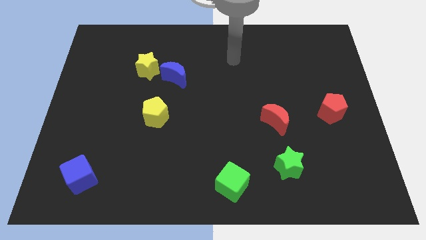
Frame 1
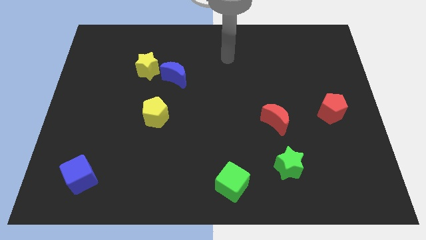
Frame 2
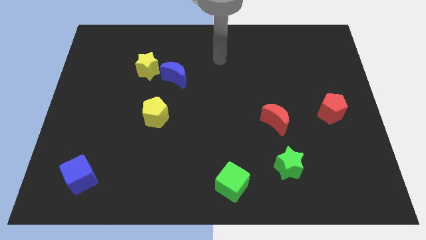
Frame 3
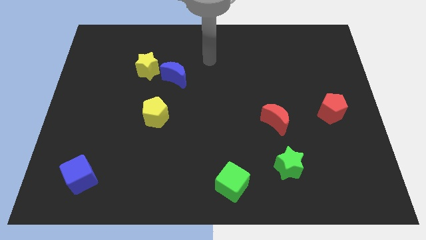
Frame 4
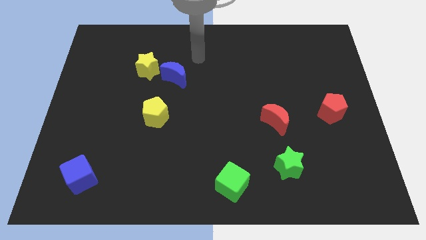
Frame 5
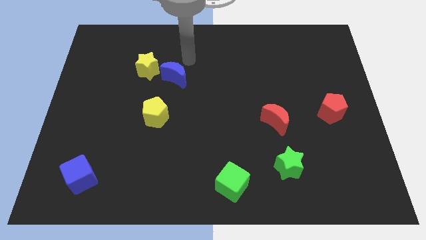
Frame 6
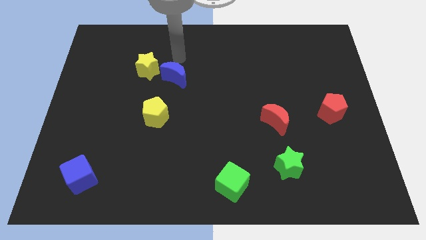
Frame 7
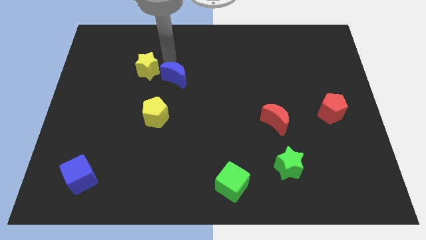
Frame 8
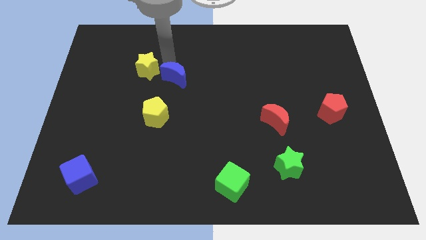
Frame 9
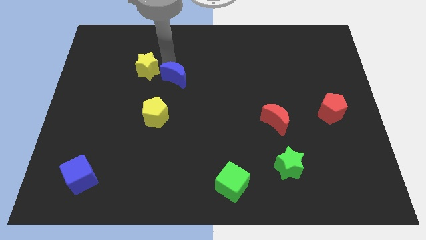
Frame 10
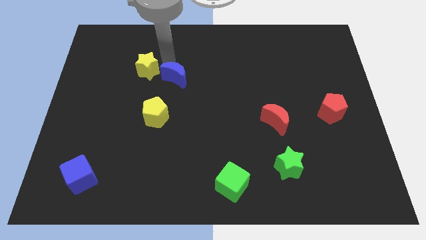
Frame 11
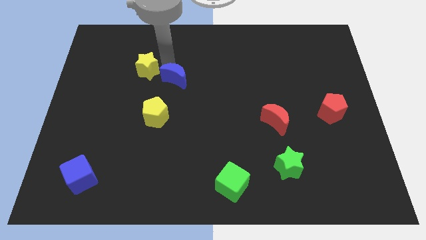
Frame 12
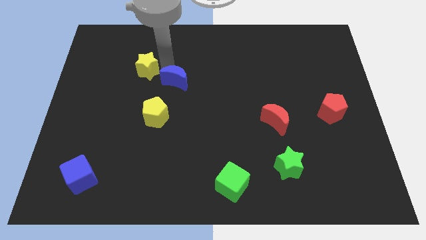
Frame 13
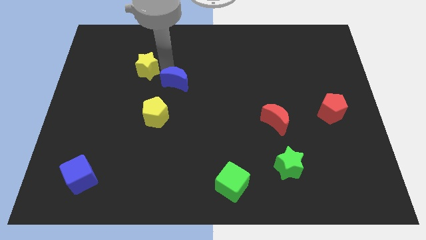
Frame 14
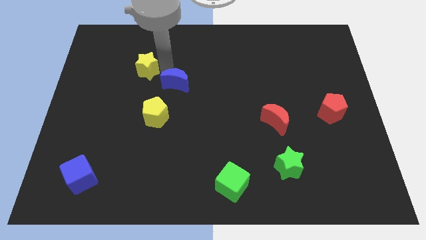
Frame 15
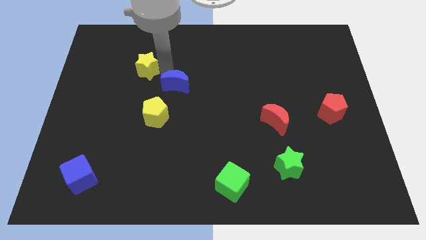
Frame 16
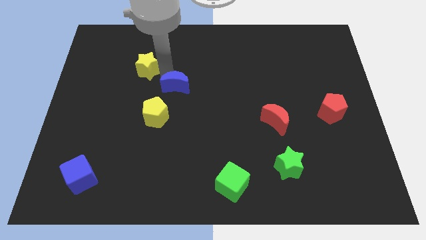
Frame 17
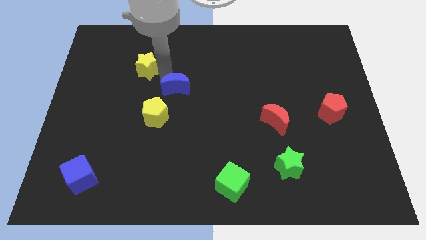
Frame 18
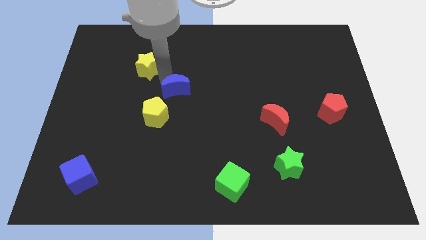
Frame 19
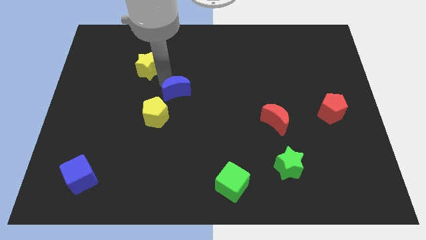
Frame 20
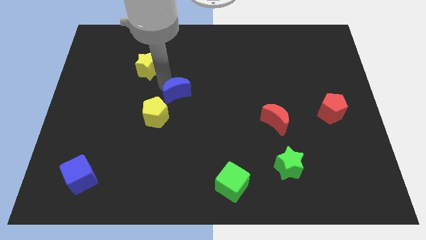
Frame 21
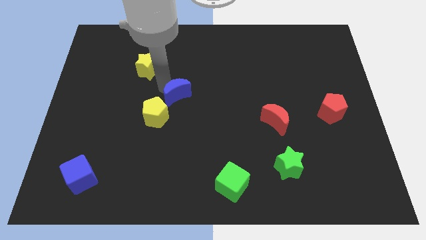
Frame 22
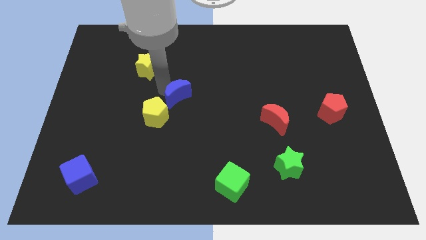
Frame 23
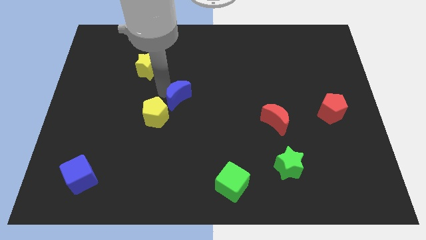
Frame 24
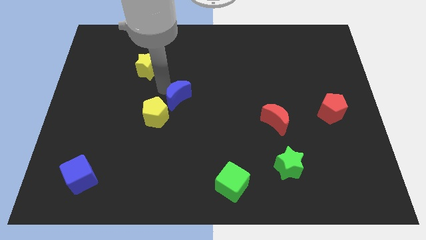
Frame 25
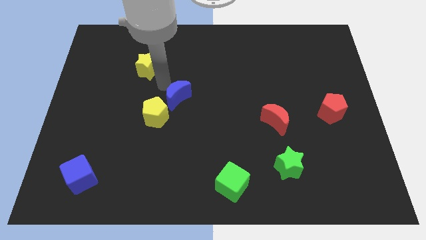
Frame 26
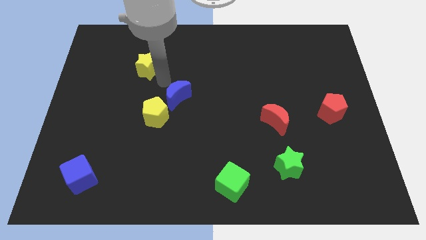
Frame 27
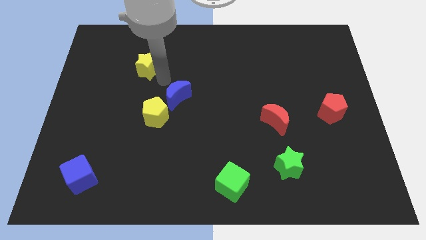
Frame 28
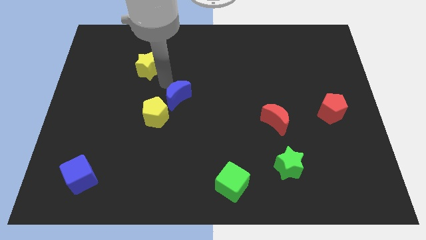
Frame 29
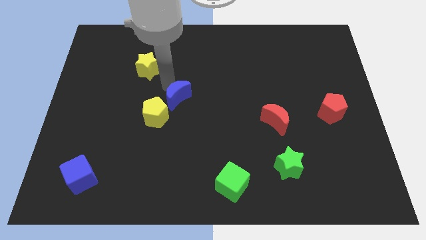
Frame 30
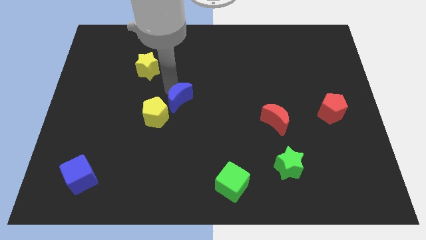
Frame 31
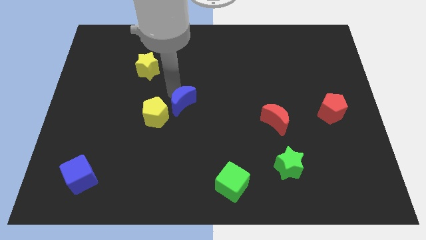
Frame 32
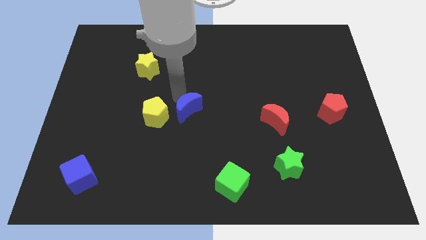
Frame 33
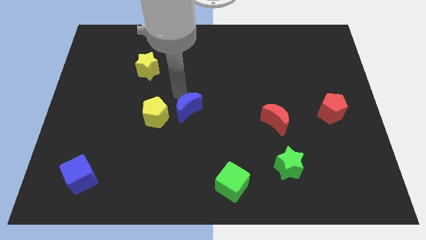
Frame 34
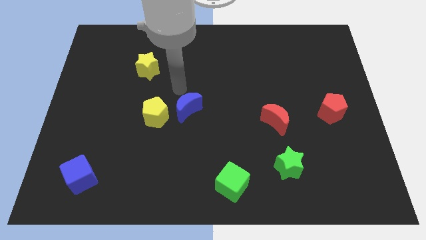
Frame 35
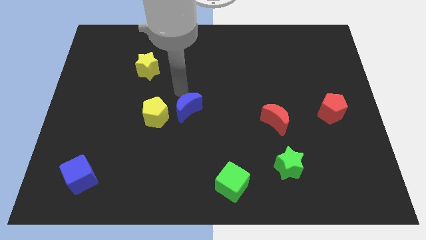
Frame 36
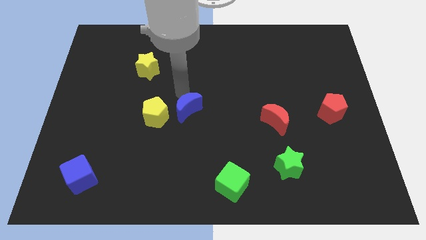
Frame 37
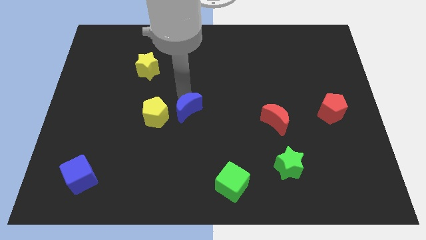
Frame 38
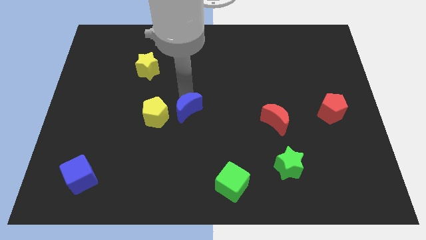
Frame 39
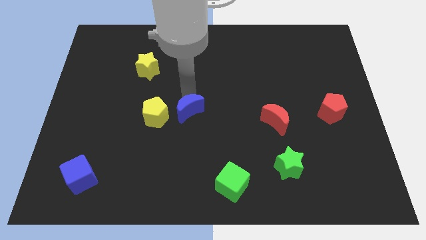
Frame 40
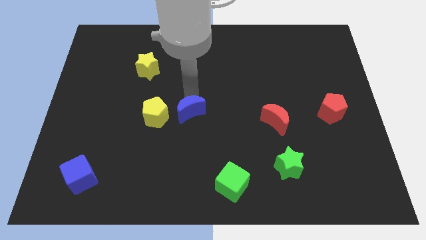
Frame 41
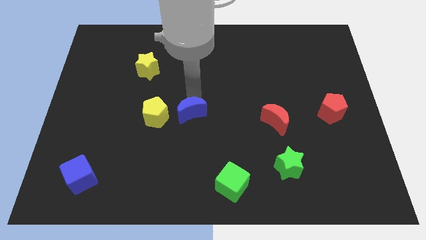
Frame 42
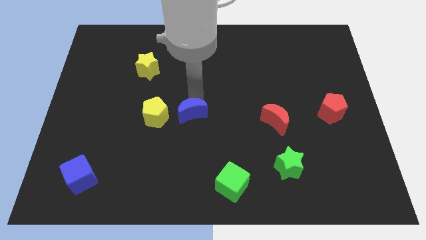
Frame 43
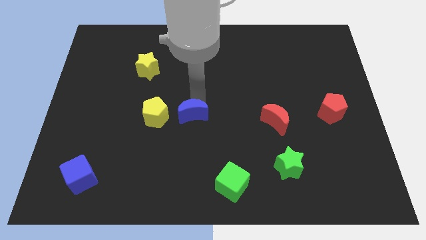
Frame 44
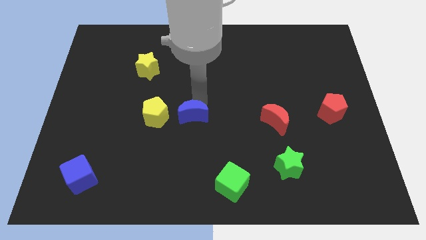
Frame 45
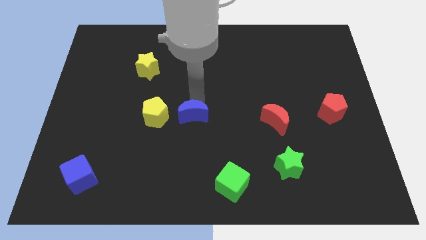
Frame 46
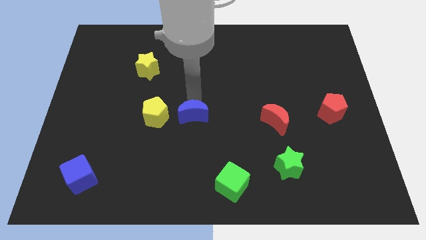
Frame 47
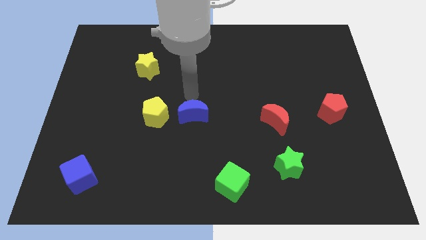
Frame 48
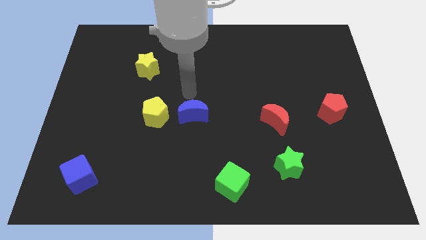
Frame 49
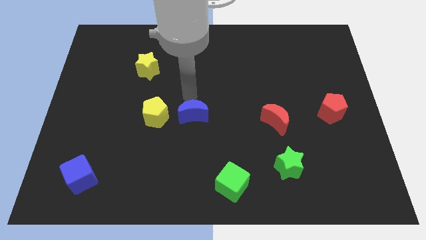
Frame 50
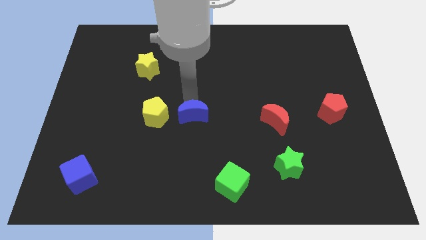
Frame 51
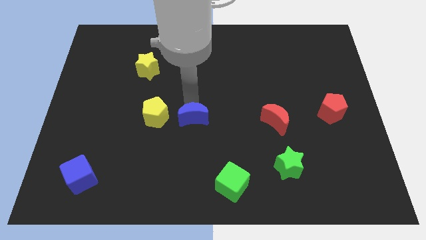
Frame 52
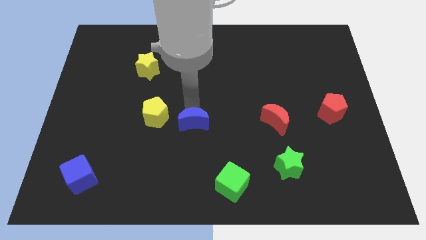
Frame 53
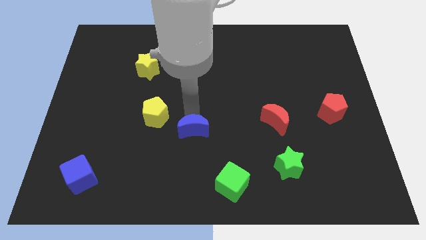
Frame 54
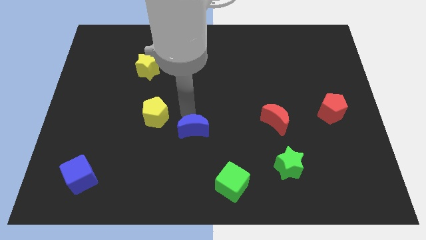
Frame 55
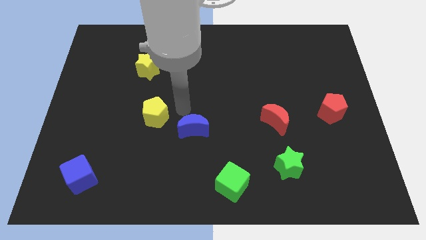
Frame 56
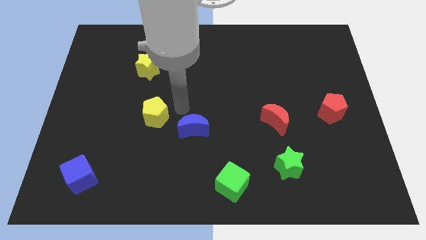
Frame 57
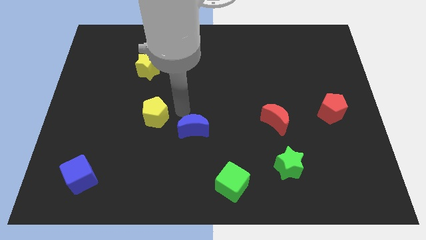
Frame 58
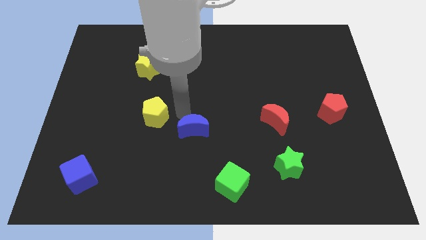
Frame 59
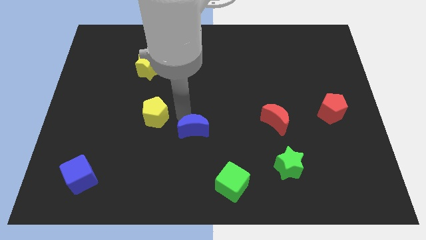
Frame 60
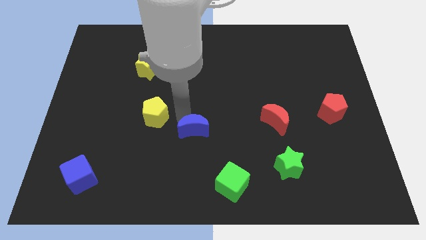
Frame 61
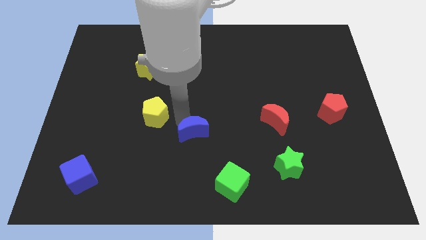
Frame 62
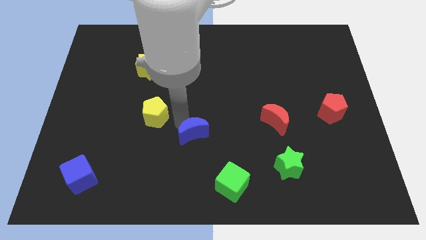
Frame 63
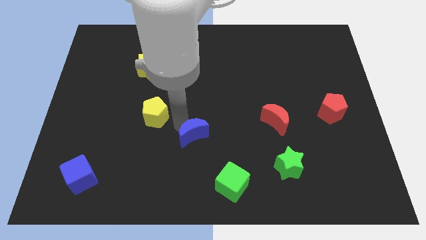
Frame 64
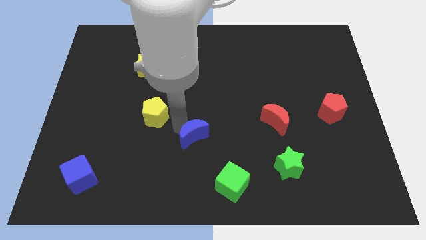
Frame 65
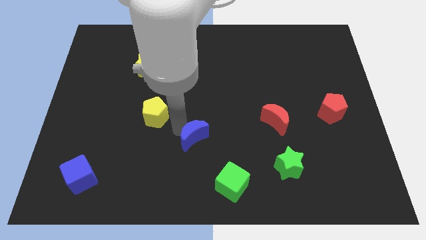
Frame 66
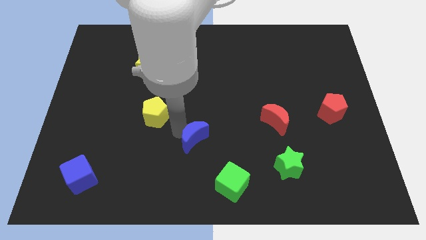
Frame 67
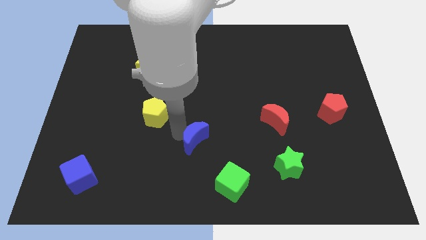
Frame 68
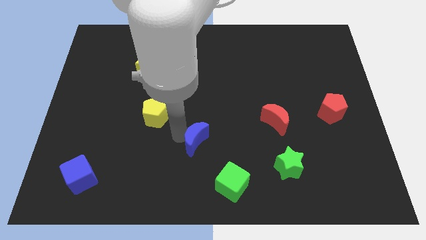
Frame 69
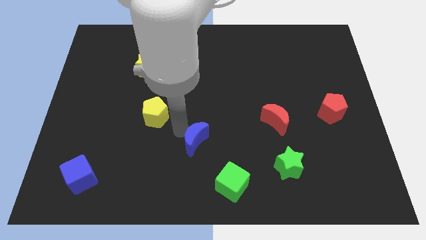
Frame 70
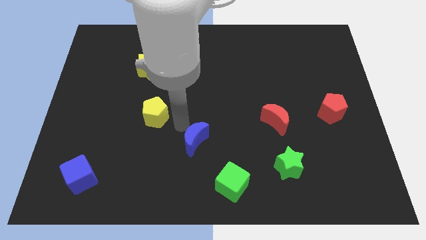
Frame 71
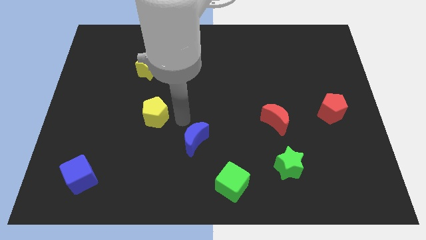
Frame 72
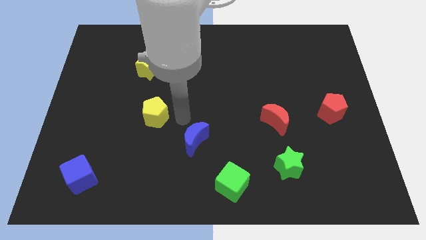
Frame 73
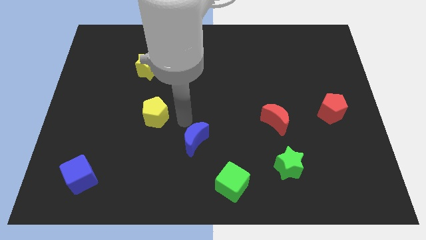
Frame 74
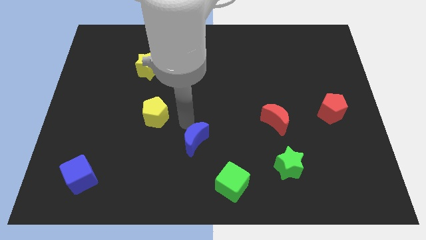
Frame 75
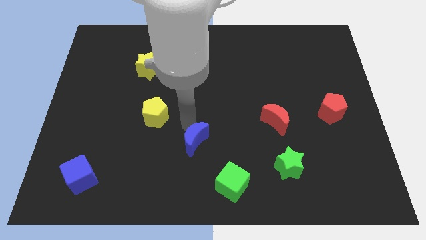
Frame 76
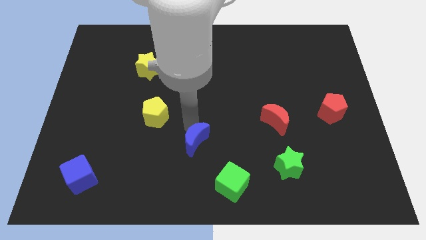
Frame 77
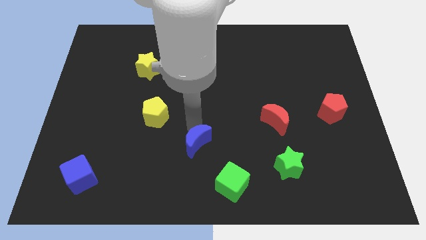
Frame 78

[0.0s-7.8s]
move the blue moon diagonally up and to the left of the green cube
